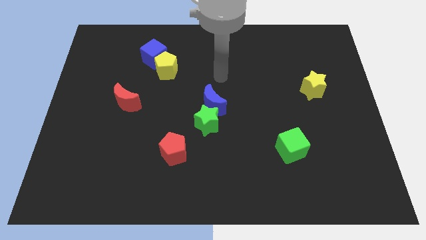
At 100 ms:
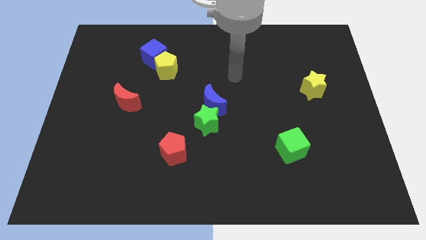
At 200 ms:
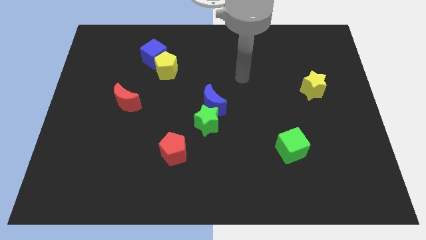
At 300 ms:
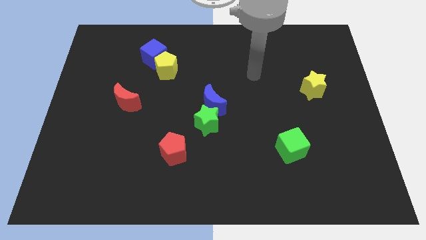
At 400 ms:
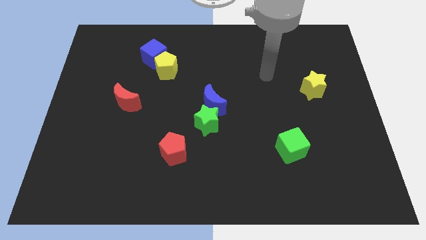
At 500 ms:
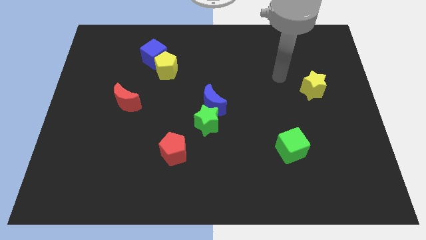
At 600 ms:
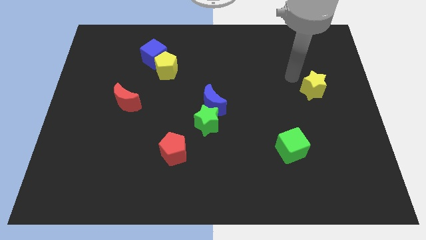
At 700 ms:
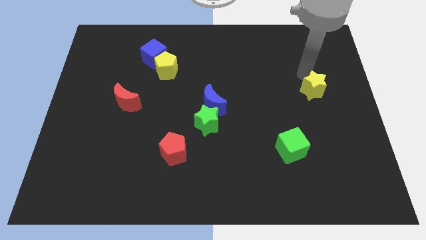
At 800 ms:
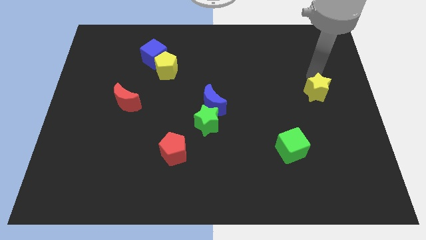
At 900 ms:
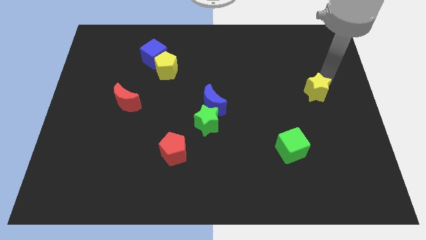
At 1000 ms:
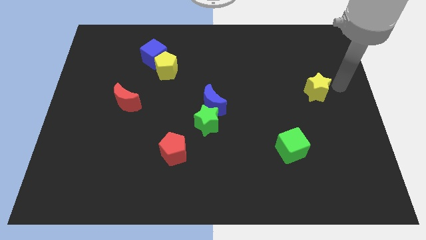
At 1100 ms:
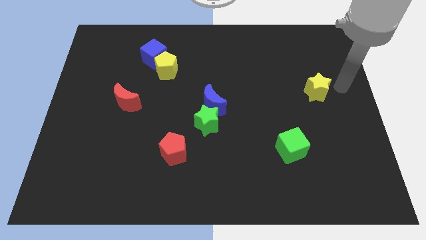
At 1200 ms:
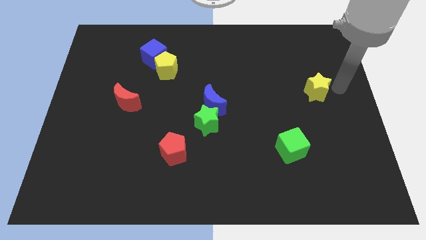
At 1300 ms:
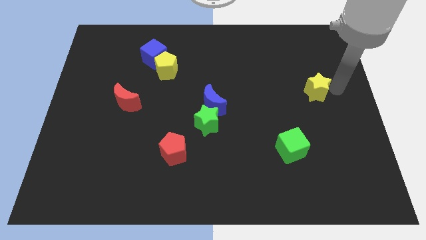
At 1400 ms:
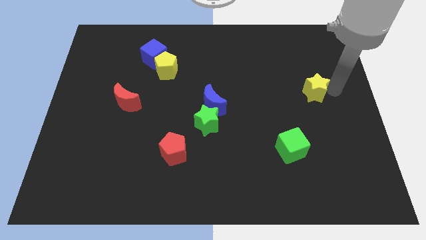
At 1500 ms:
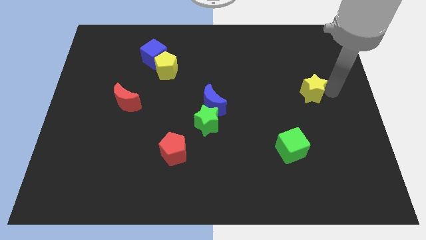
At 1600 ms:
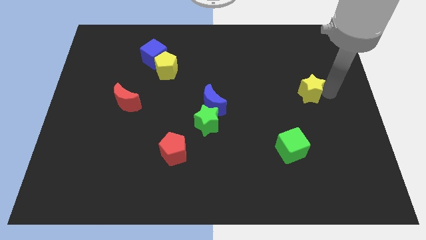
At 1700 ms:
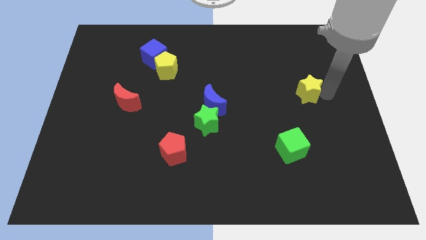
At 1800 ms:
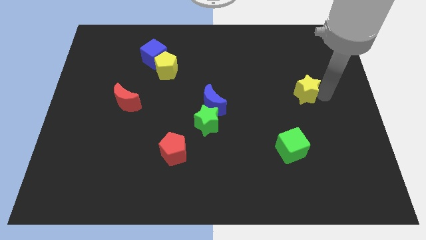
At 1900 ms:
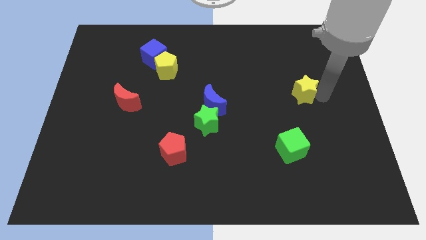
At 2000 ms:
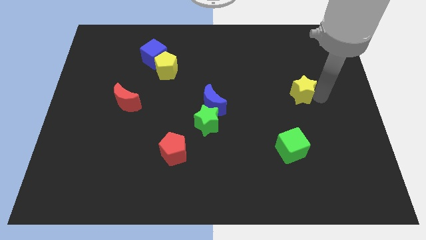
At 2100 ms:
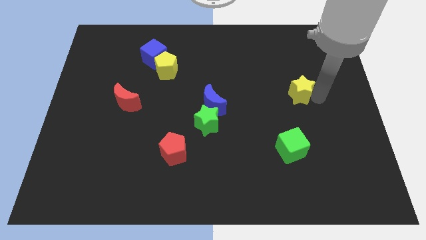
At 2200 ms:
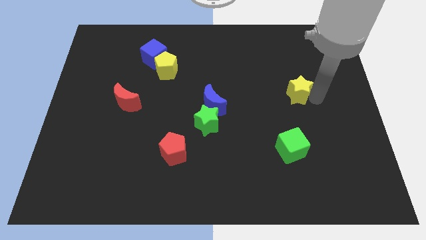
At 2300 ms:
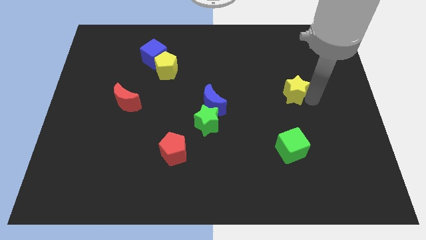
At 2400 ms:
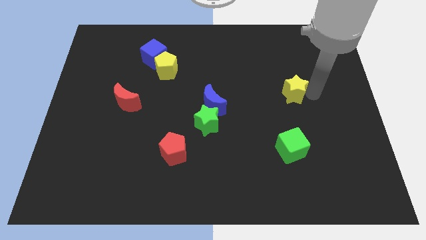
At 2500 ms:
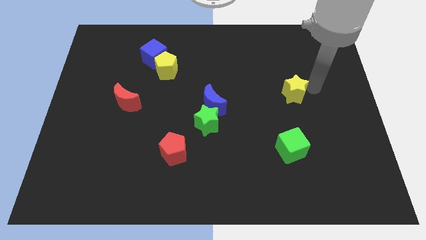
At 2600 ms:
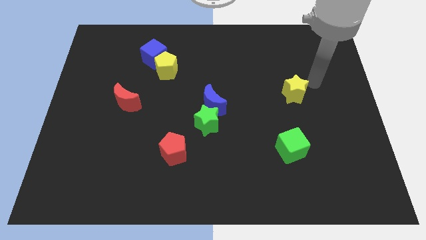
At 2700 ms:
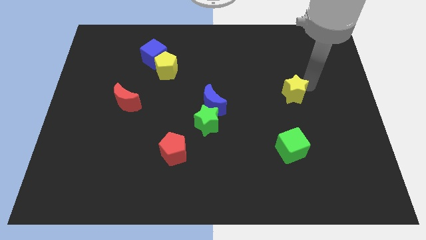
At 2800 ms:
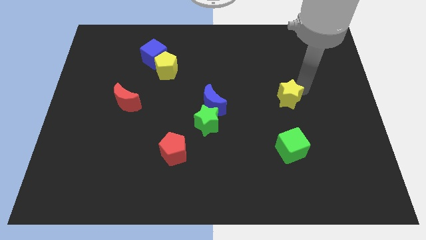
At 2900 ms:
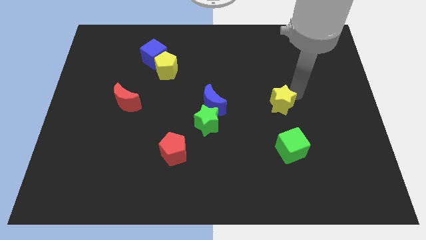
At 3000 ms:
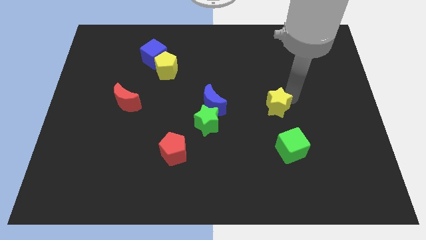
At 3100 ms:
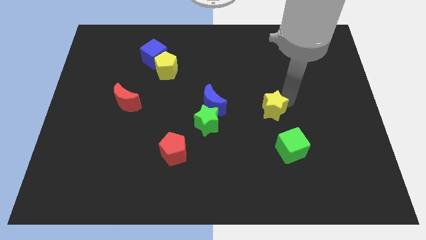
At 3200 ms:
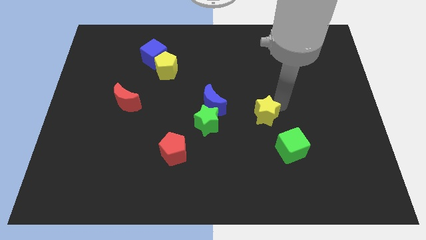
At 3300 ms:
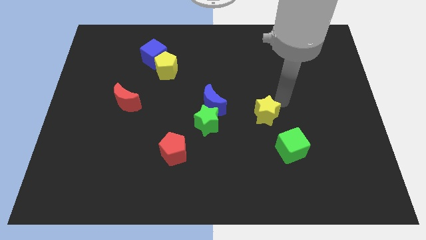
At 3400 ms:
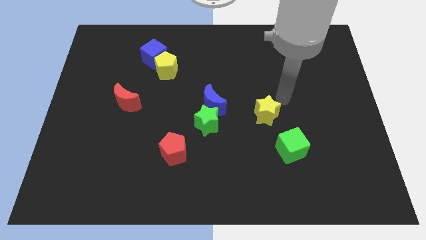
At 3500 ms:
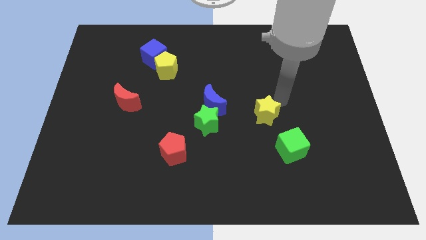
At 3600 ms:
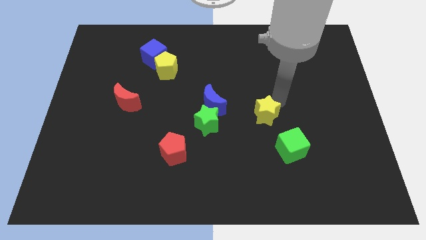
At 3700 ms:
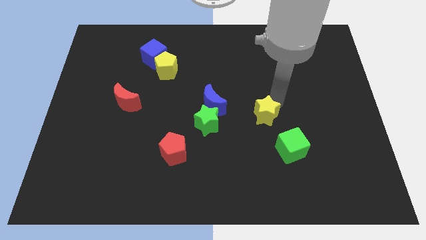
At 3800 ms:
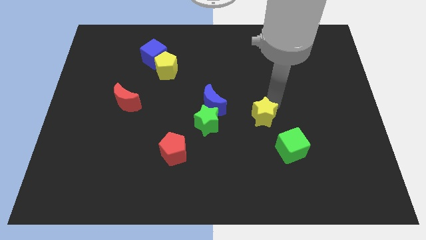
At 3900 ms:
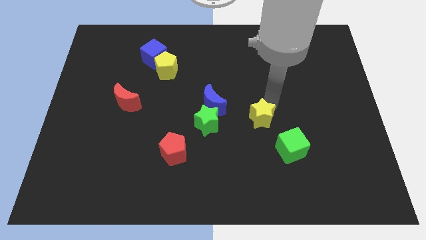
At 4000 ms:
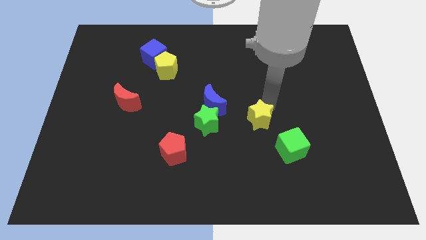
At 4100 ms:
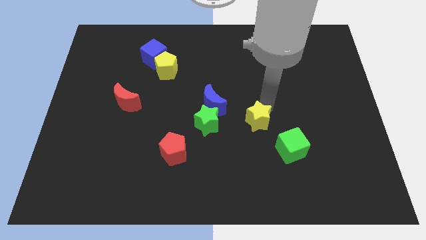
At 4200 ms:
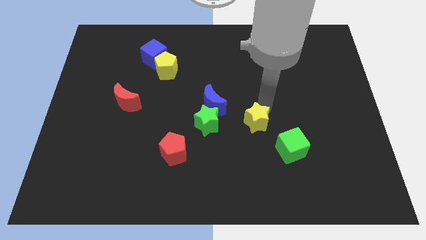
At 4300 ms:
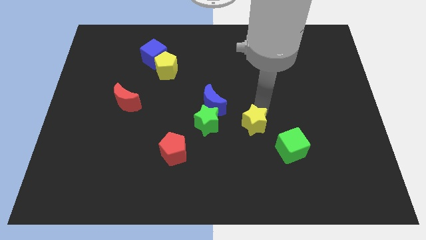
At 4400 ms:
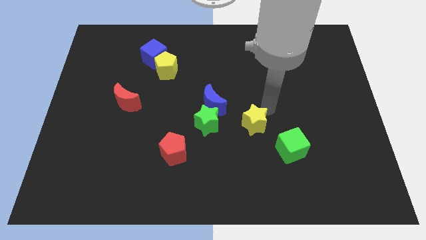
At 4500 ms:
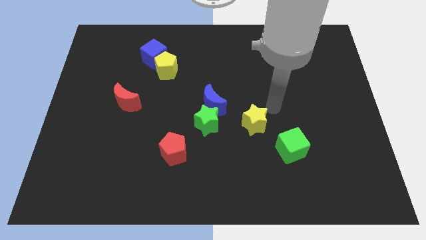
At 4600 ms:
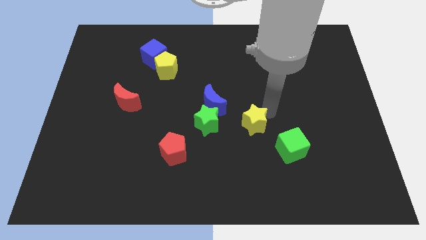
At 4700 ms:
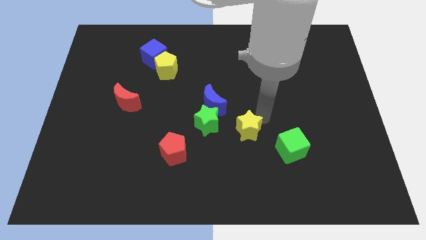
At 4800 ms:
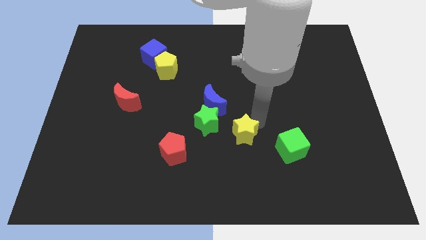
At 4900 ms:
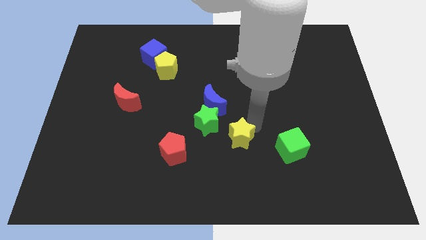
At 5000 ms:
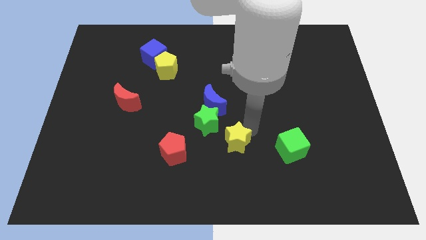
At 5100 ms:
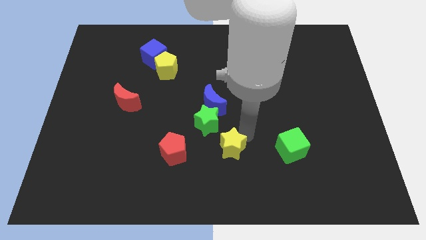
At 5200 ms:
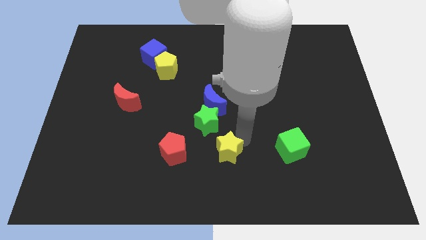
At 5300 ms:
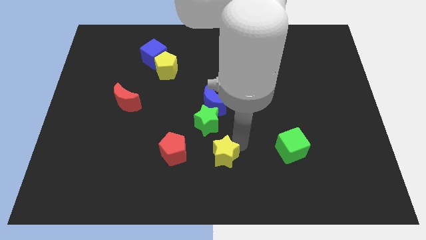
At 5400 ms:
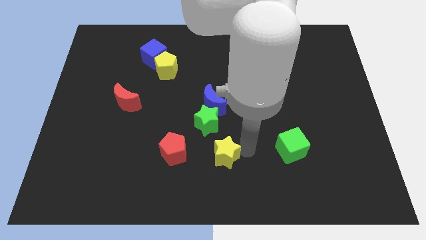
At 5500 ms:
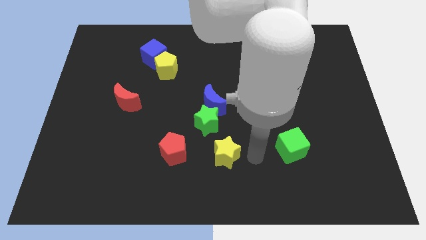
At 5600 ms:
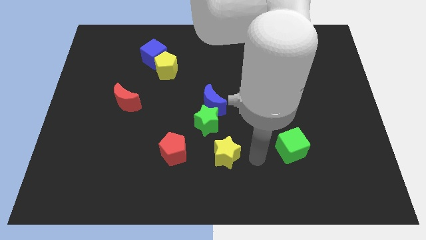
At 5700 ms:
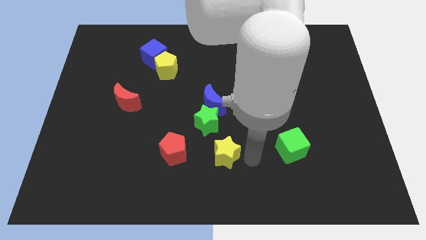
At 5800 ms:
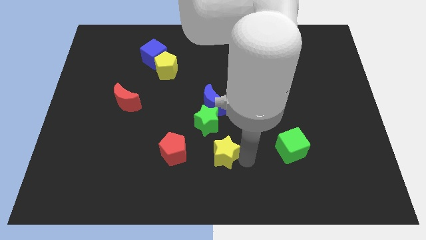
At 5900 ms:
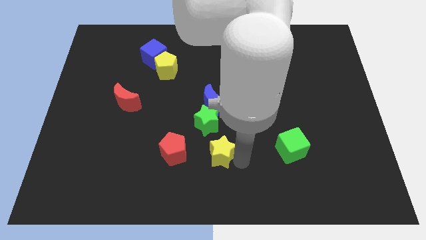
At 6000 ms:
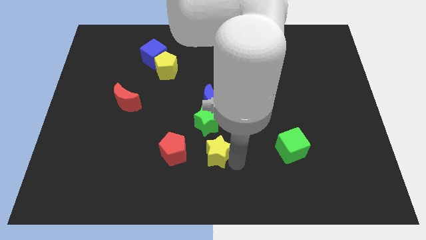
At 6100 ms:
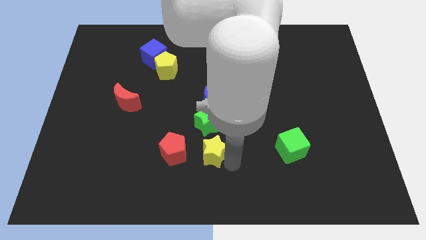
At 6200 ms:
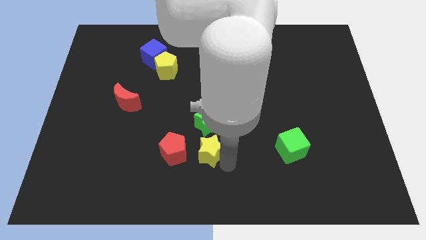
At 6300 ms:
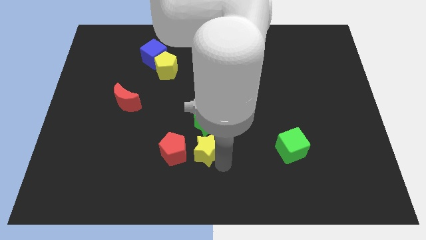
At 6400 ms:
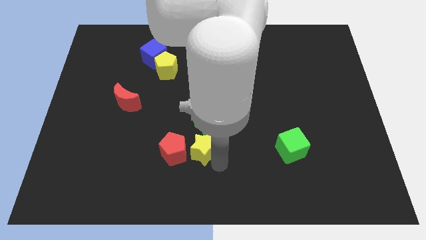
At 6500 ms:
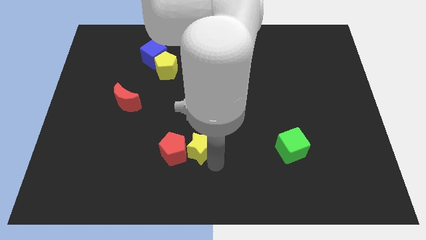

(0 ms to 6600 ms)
put the yellow star to the red pentagon
